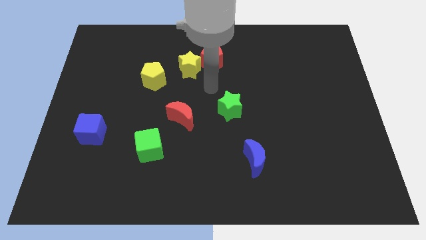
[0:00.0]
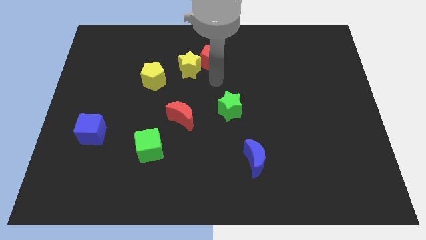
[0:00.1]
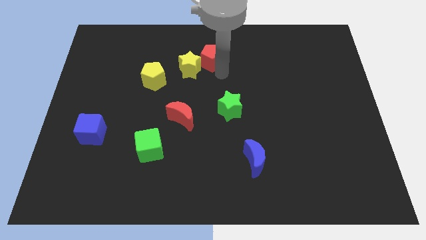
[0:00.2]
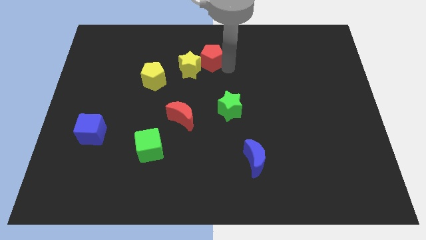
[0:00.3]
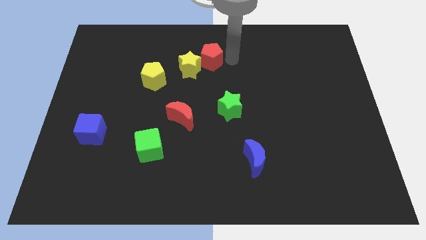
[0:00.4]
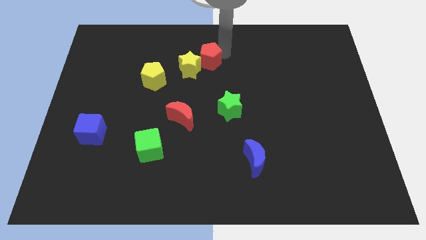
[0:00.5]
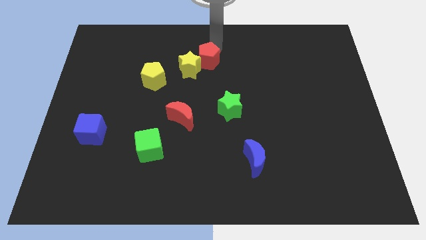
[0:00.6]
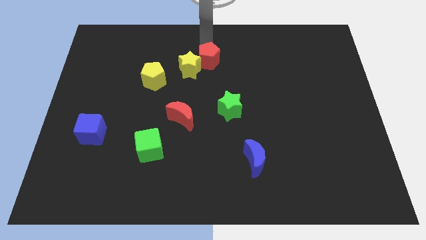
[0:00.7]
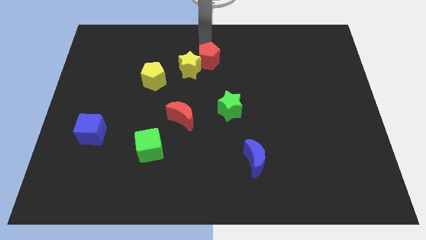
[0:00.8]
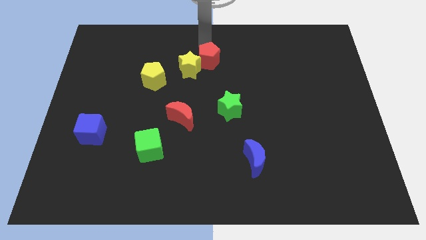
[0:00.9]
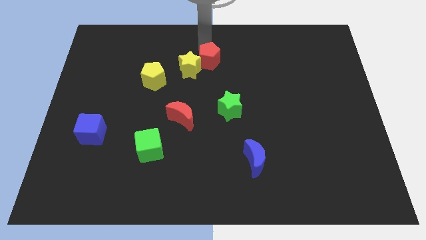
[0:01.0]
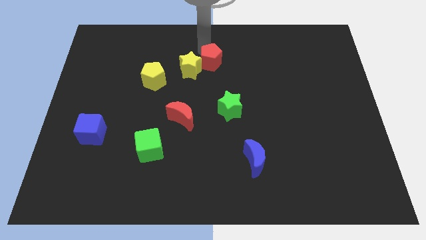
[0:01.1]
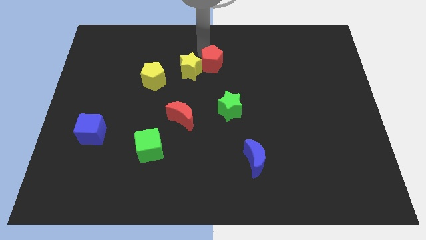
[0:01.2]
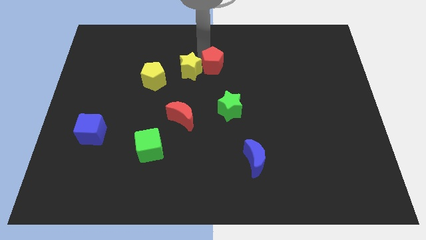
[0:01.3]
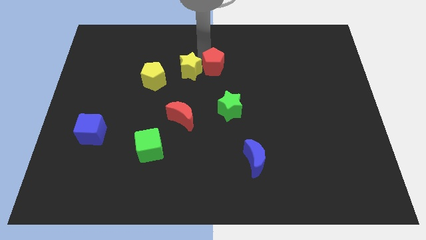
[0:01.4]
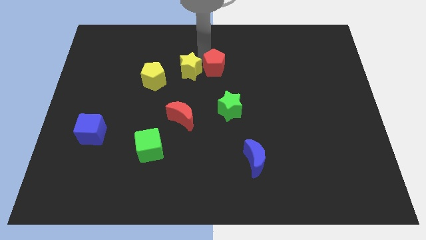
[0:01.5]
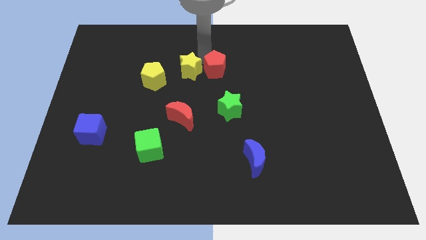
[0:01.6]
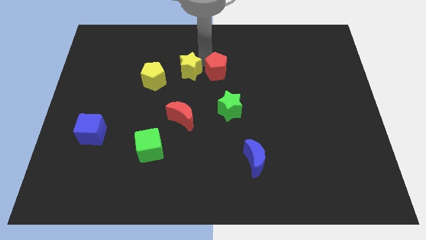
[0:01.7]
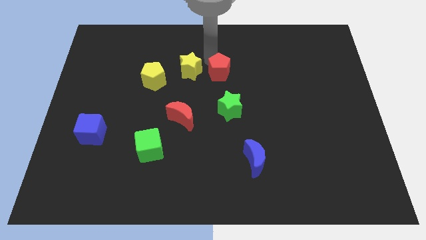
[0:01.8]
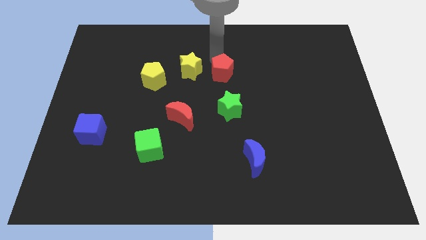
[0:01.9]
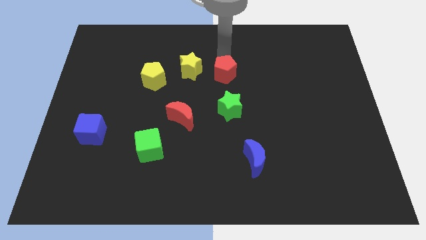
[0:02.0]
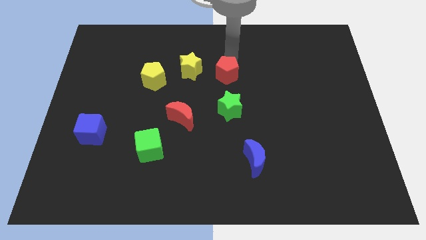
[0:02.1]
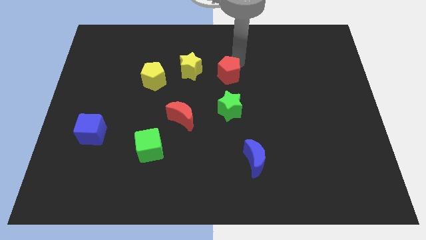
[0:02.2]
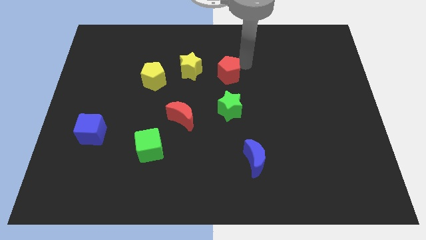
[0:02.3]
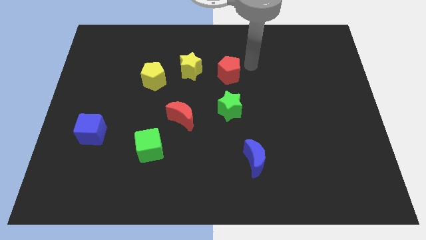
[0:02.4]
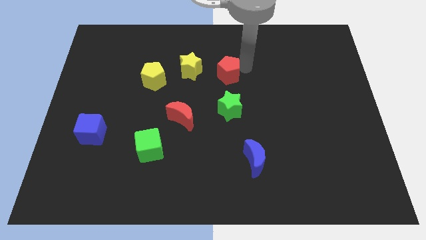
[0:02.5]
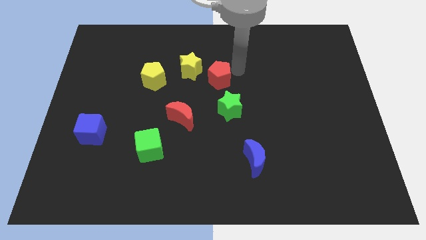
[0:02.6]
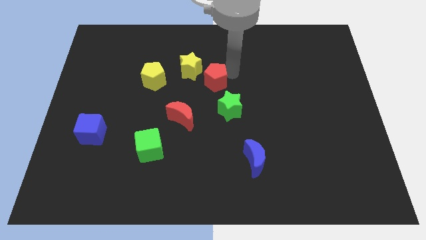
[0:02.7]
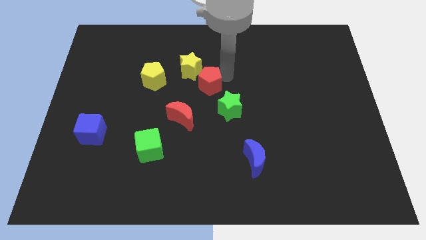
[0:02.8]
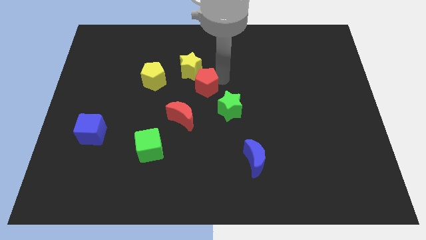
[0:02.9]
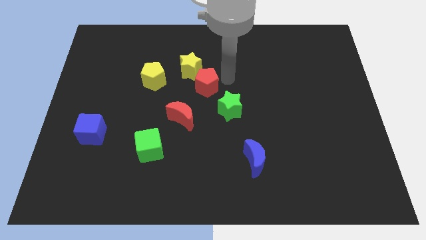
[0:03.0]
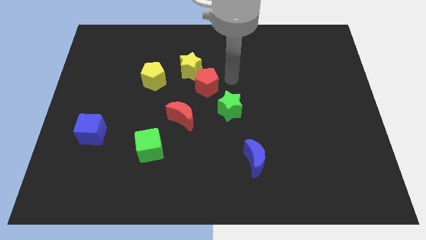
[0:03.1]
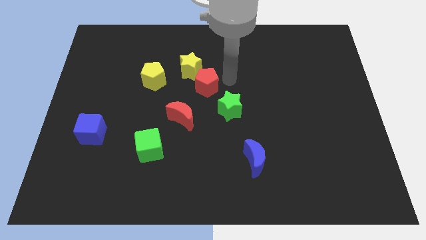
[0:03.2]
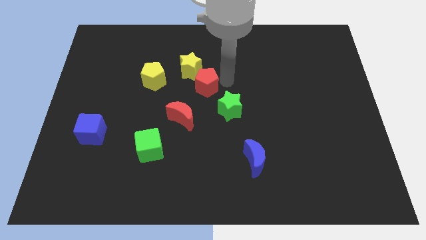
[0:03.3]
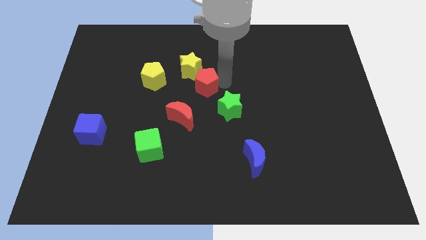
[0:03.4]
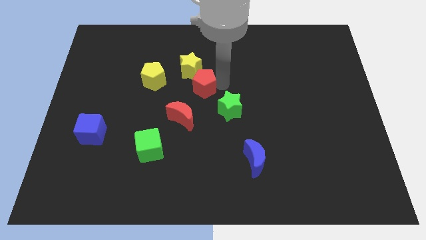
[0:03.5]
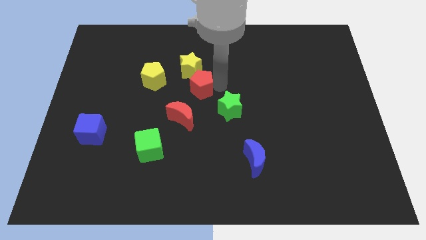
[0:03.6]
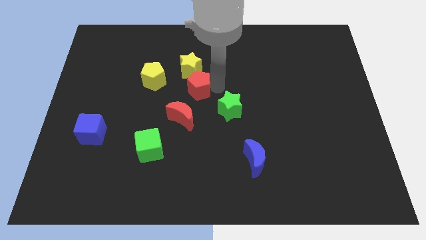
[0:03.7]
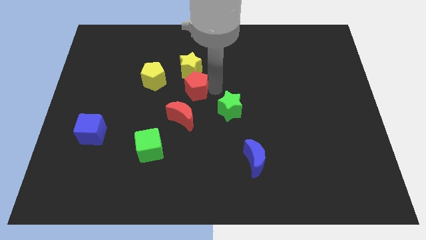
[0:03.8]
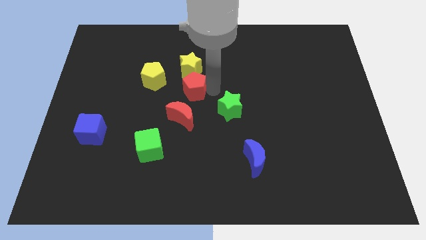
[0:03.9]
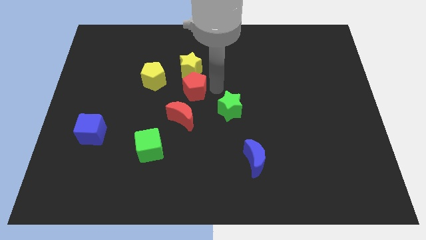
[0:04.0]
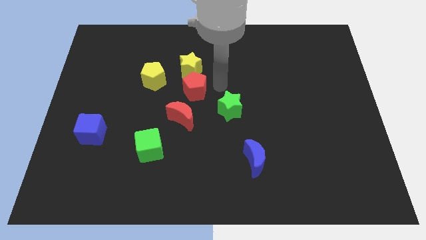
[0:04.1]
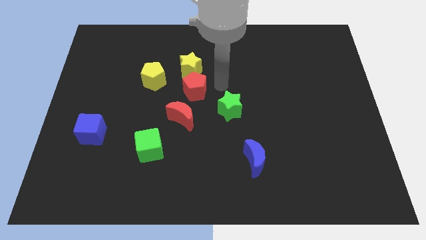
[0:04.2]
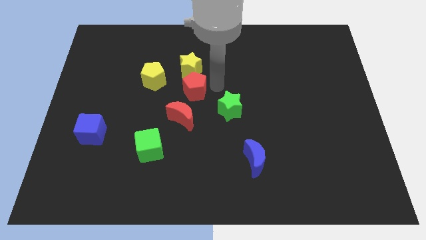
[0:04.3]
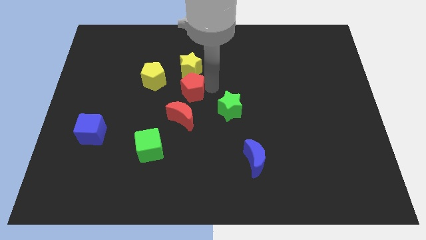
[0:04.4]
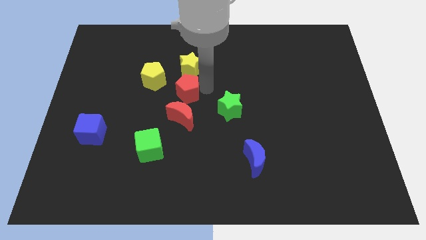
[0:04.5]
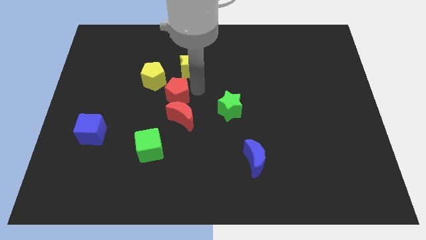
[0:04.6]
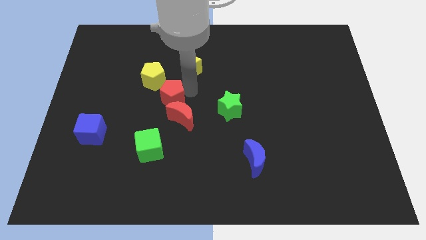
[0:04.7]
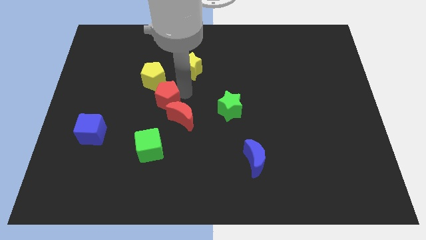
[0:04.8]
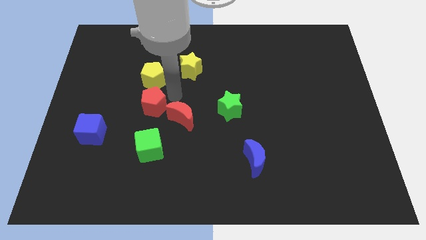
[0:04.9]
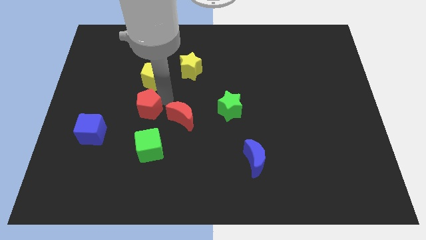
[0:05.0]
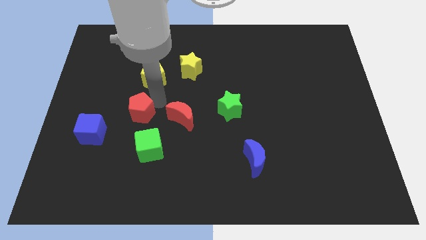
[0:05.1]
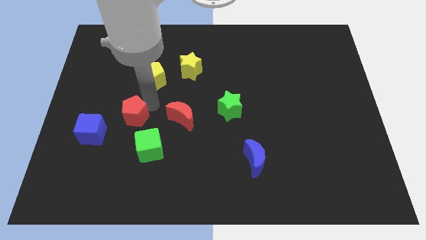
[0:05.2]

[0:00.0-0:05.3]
move the red pentagon diagonally up and to the left of the green cube

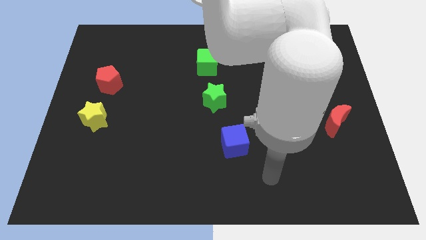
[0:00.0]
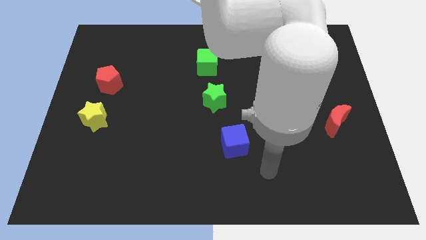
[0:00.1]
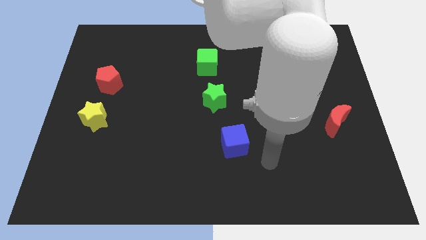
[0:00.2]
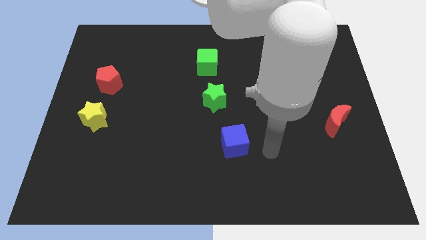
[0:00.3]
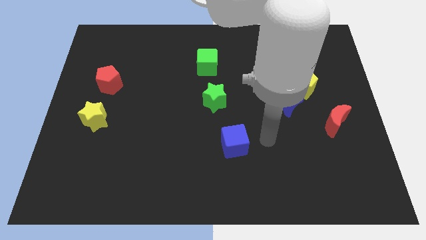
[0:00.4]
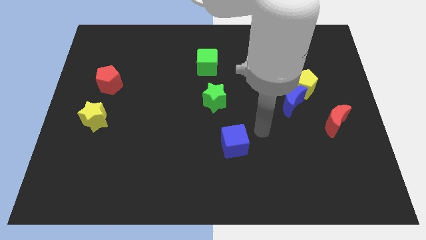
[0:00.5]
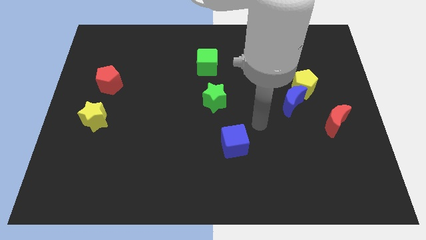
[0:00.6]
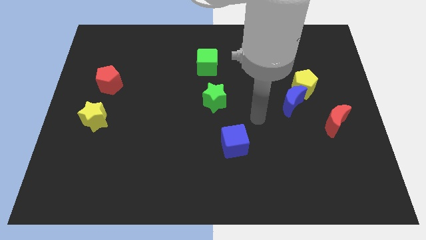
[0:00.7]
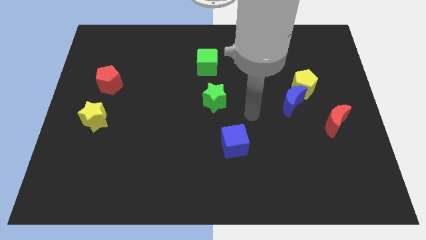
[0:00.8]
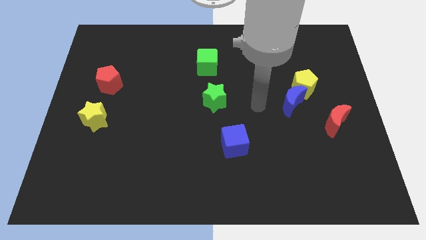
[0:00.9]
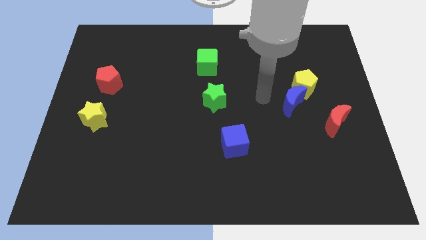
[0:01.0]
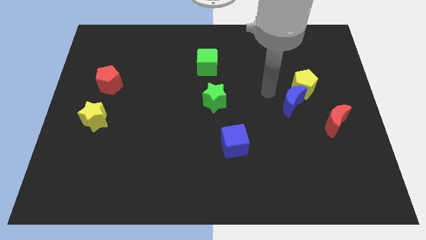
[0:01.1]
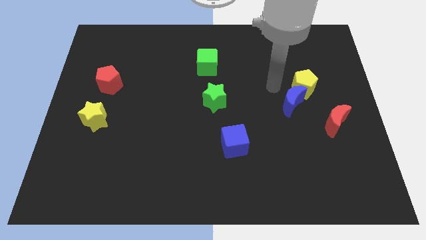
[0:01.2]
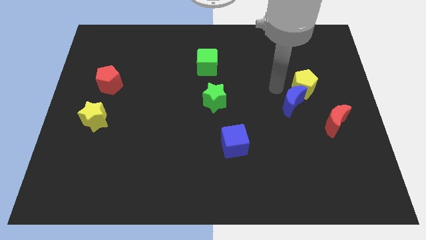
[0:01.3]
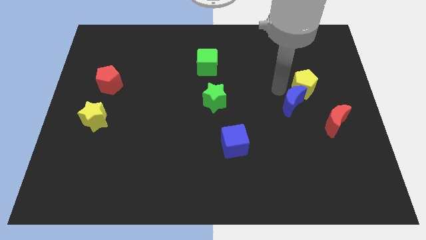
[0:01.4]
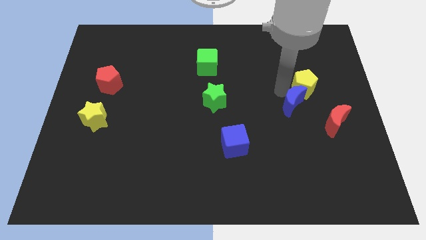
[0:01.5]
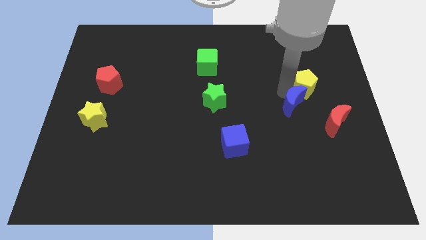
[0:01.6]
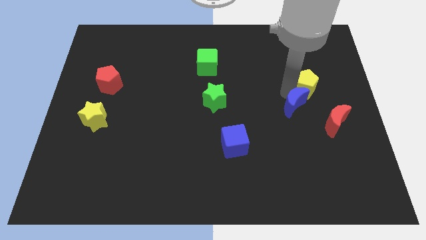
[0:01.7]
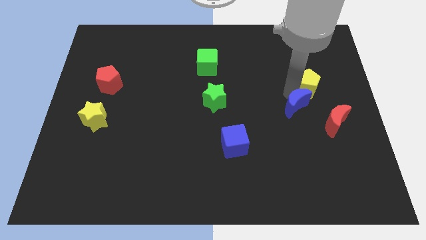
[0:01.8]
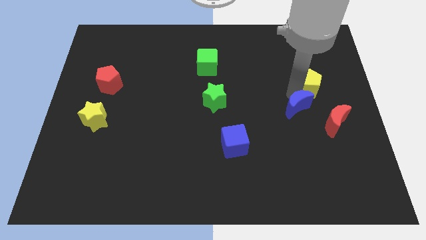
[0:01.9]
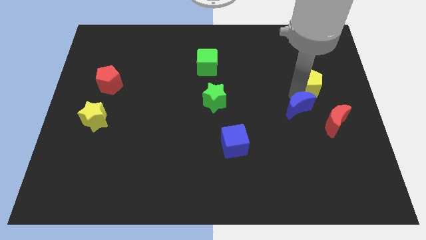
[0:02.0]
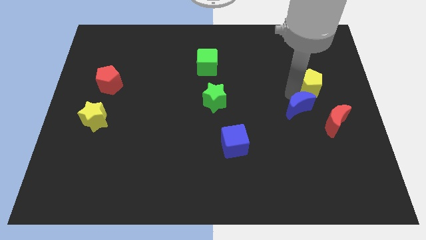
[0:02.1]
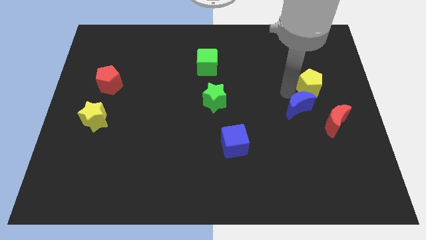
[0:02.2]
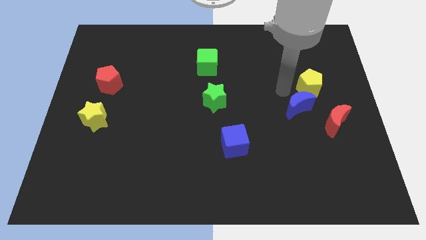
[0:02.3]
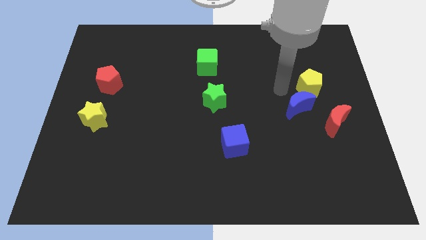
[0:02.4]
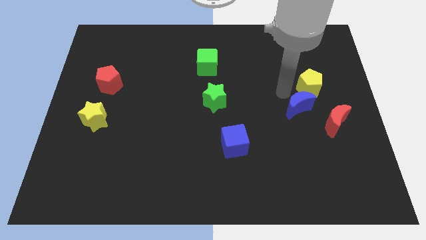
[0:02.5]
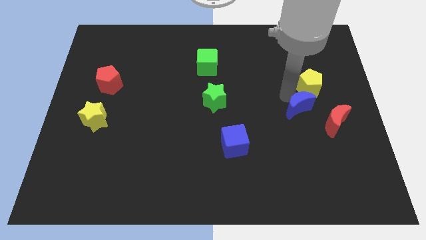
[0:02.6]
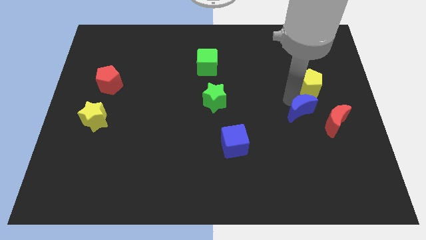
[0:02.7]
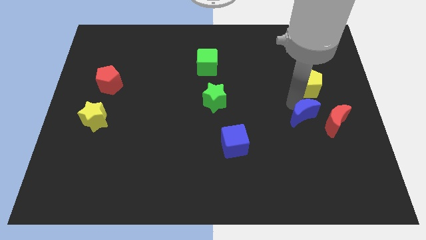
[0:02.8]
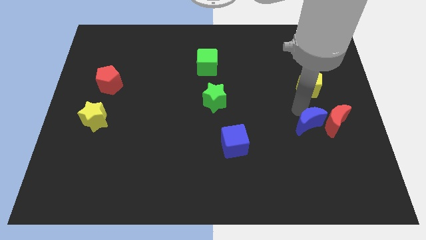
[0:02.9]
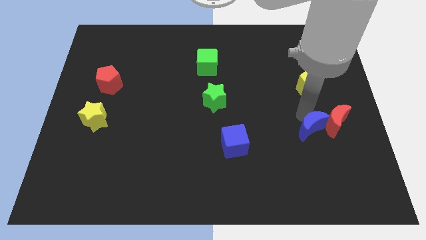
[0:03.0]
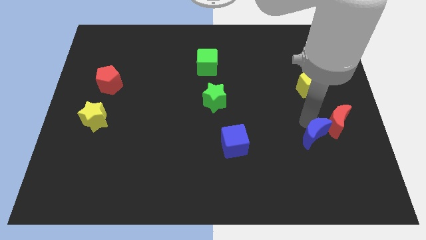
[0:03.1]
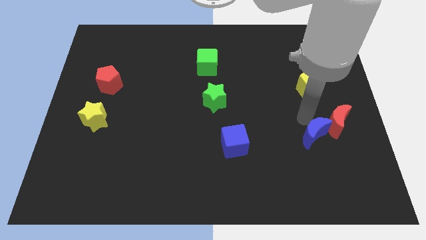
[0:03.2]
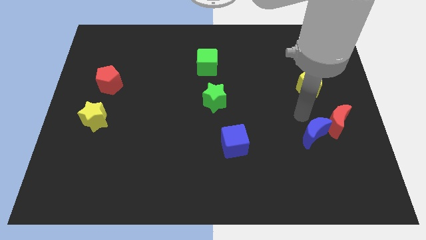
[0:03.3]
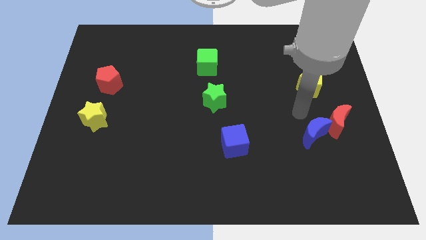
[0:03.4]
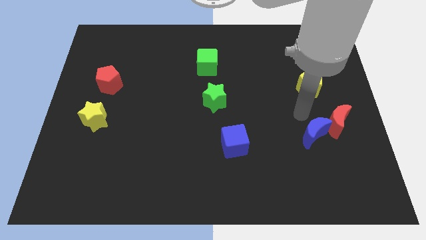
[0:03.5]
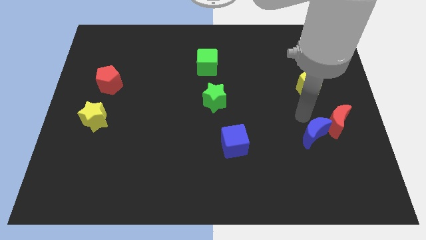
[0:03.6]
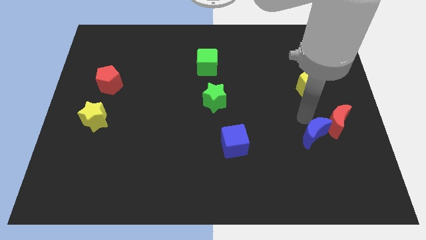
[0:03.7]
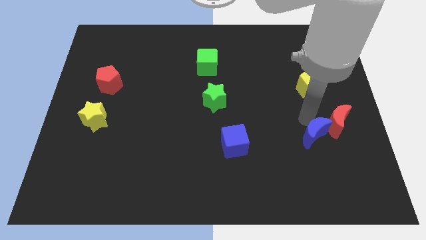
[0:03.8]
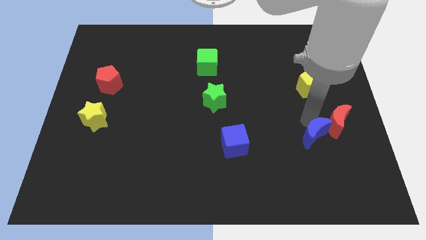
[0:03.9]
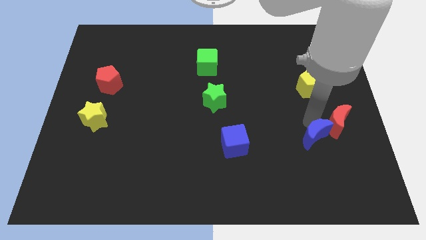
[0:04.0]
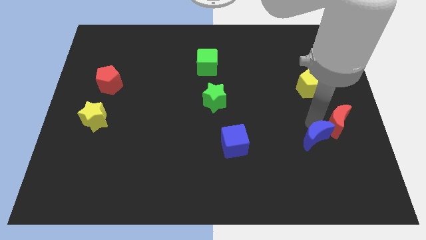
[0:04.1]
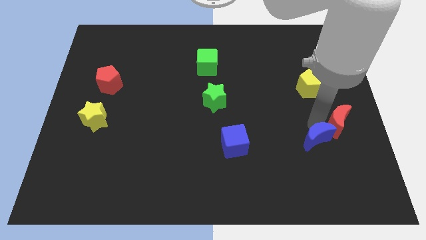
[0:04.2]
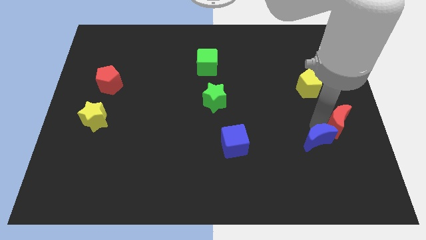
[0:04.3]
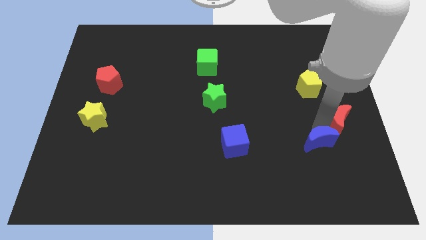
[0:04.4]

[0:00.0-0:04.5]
push the blue moon to the bottom of the red moon
